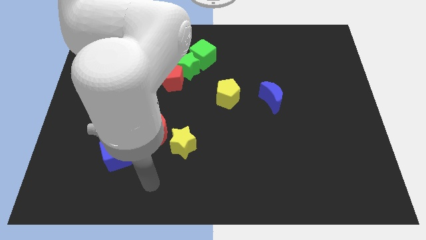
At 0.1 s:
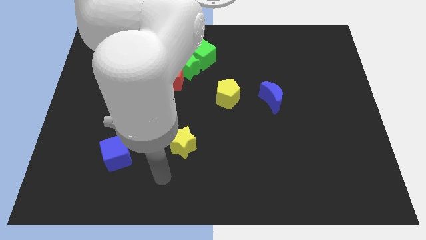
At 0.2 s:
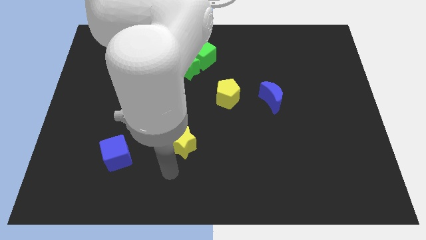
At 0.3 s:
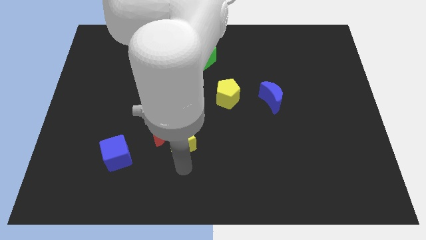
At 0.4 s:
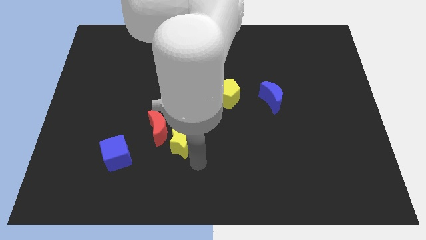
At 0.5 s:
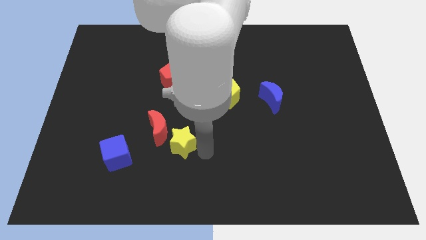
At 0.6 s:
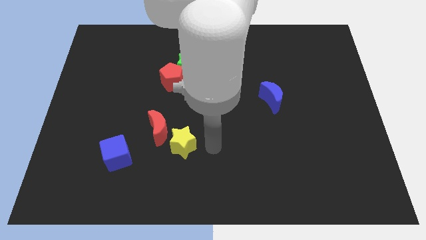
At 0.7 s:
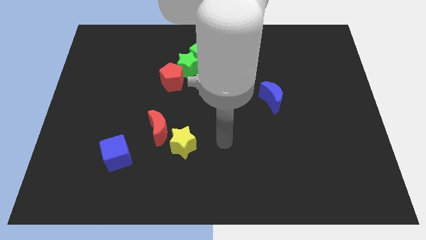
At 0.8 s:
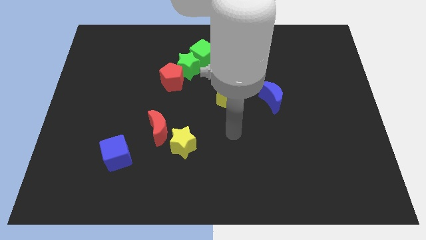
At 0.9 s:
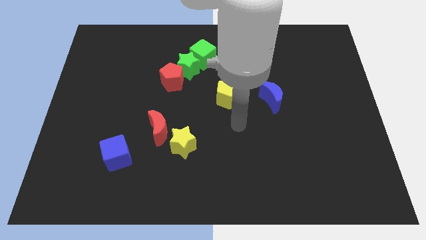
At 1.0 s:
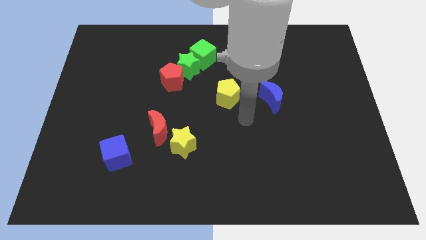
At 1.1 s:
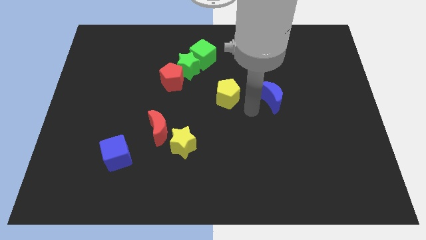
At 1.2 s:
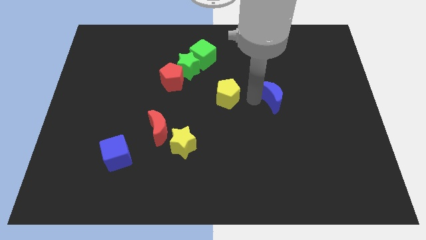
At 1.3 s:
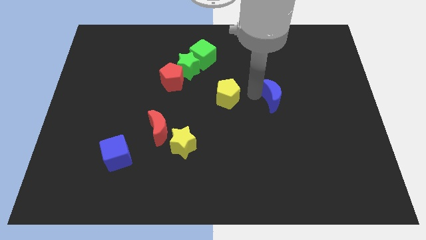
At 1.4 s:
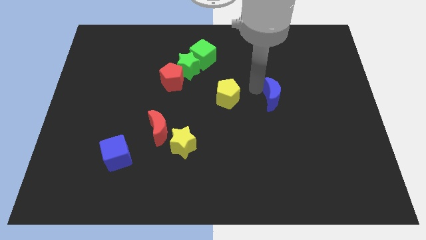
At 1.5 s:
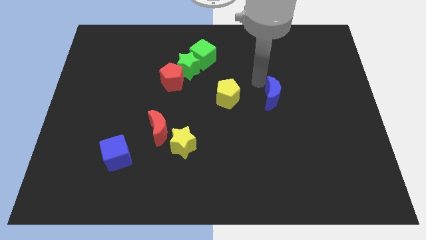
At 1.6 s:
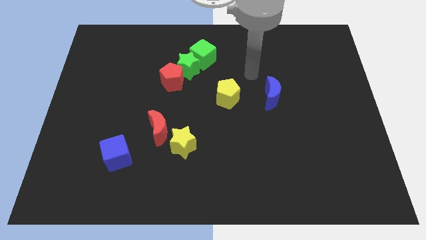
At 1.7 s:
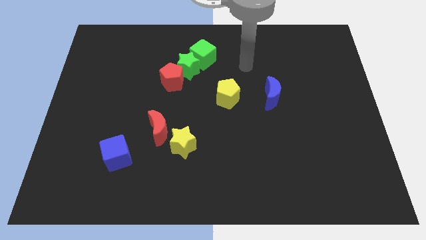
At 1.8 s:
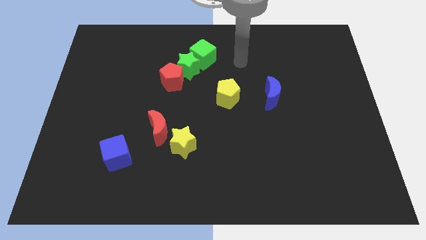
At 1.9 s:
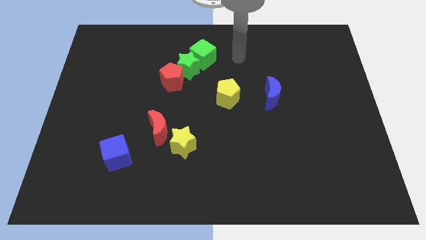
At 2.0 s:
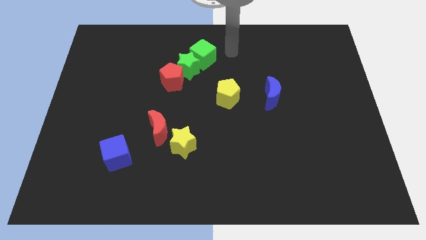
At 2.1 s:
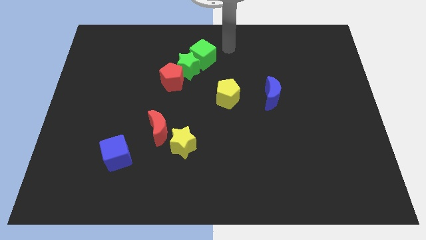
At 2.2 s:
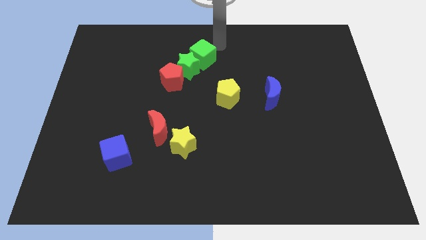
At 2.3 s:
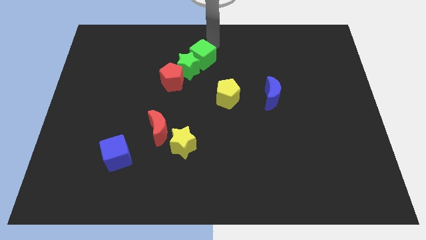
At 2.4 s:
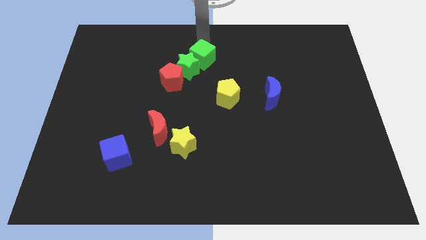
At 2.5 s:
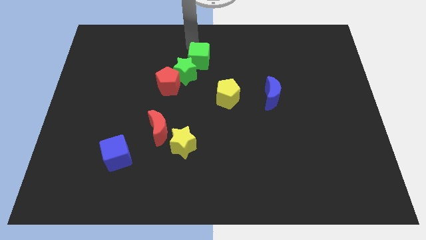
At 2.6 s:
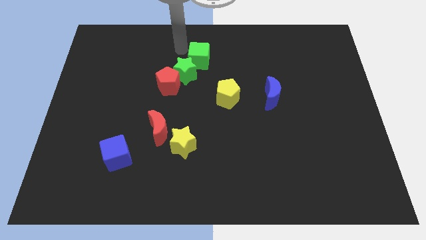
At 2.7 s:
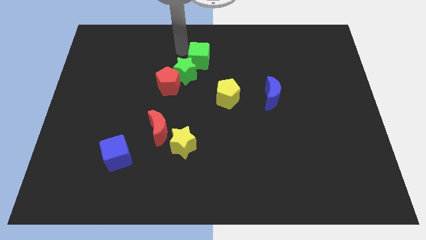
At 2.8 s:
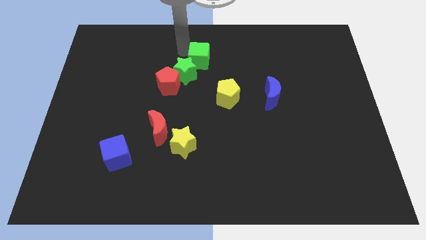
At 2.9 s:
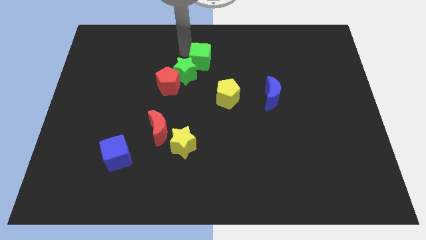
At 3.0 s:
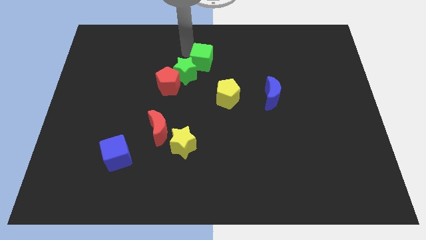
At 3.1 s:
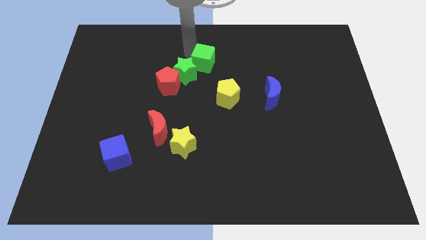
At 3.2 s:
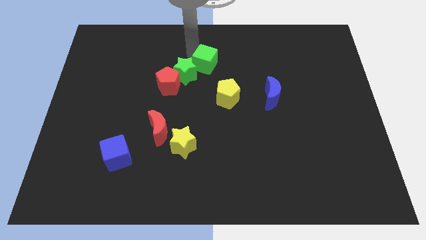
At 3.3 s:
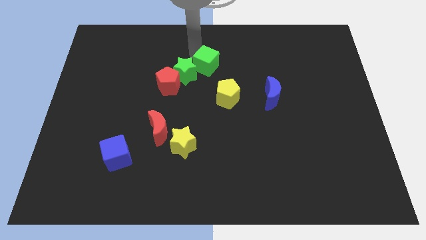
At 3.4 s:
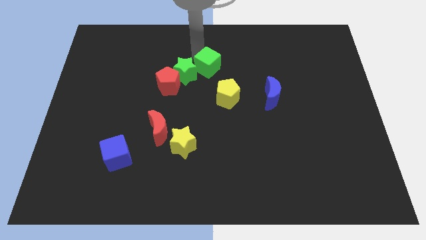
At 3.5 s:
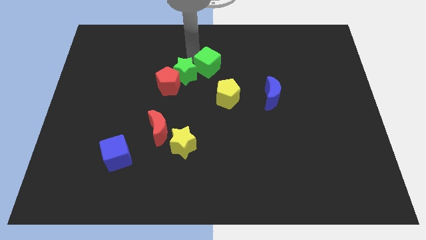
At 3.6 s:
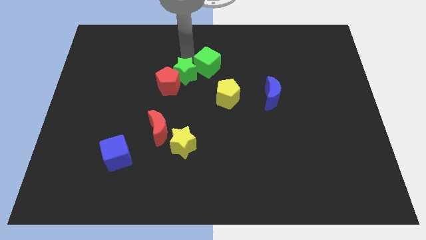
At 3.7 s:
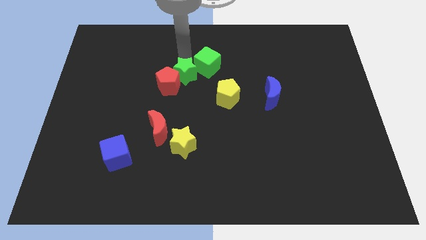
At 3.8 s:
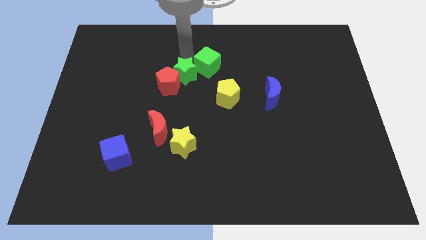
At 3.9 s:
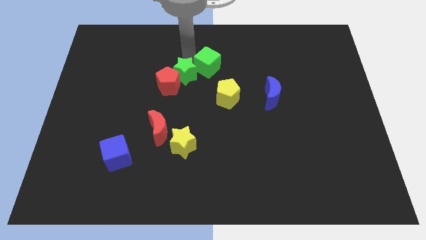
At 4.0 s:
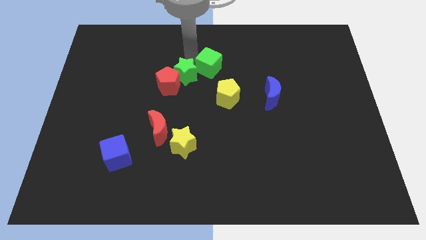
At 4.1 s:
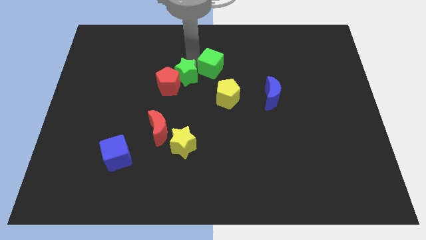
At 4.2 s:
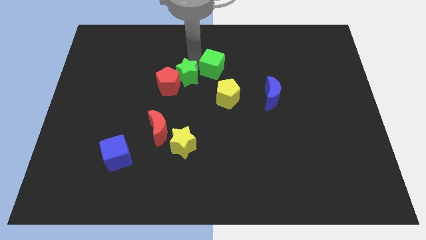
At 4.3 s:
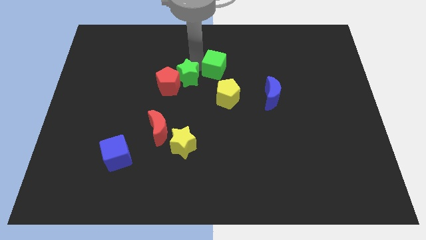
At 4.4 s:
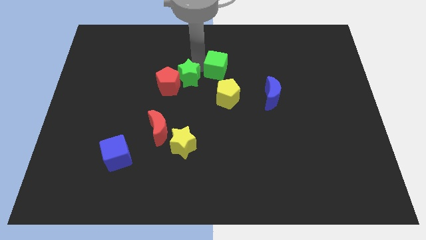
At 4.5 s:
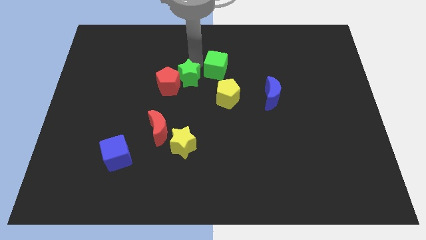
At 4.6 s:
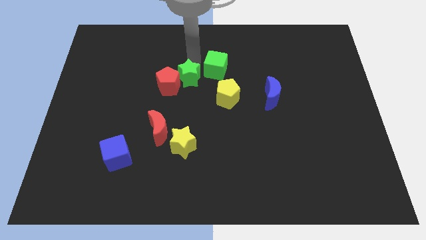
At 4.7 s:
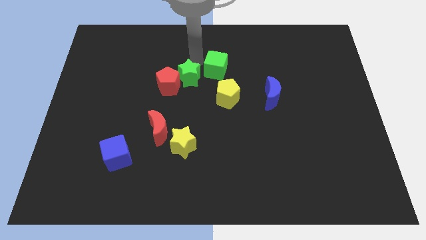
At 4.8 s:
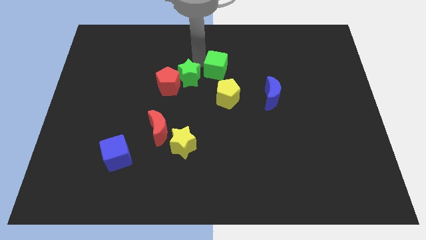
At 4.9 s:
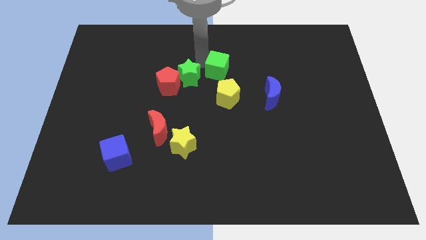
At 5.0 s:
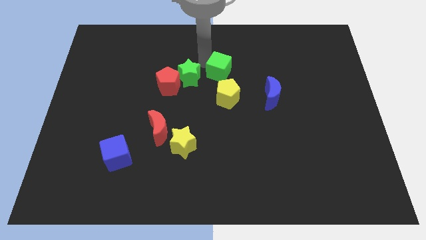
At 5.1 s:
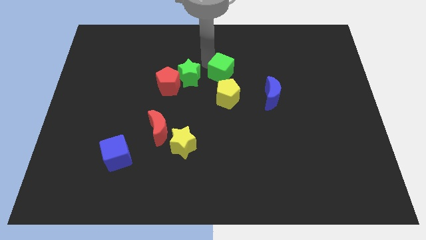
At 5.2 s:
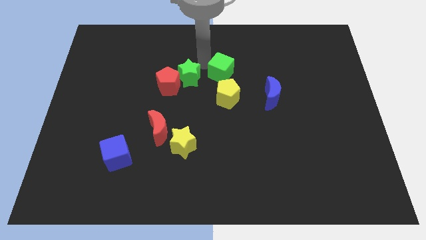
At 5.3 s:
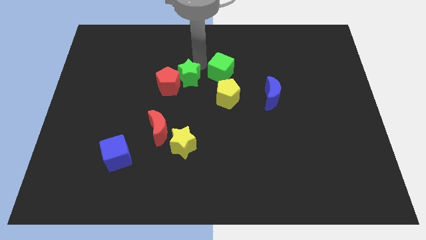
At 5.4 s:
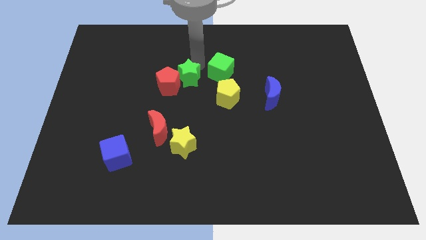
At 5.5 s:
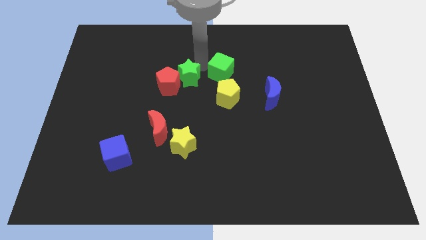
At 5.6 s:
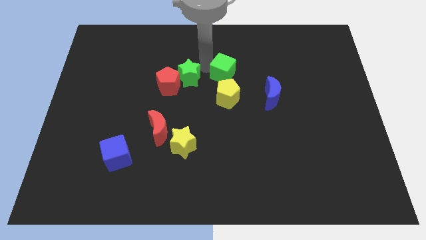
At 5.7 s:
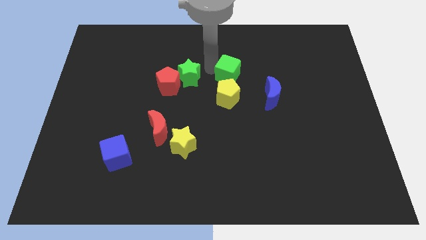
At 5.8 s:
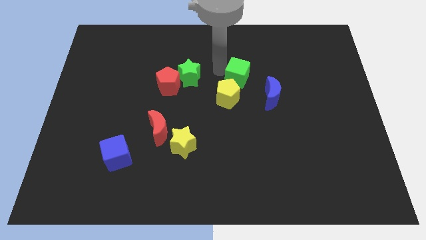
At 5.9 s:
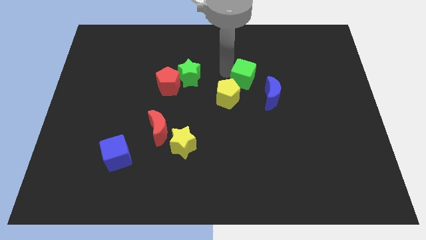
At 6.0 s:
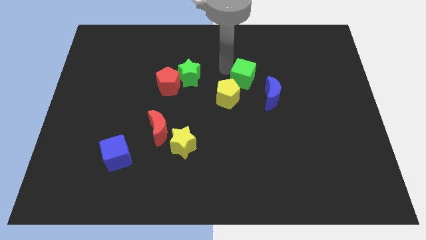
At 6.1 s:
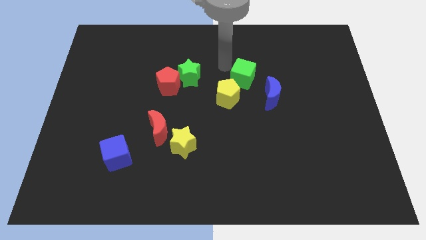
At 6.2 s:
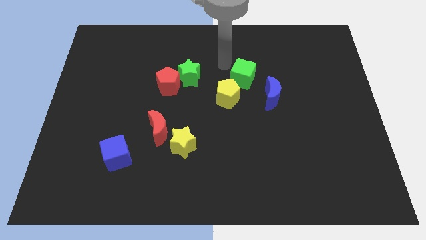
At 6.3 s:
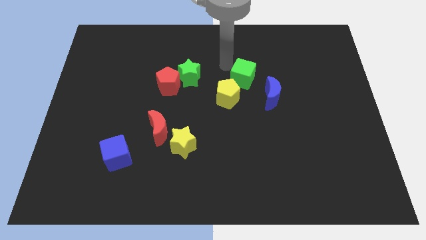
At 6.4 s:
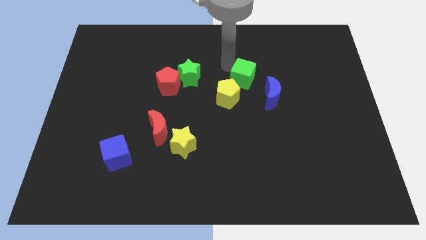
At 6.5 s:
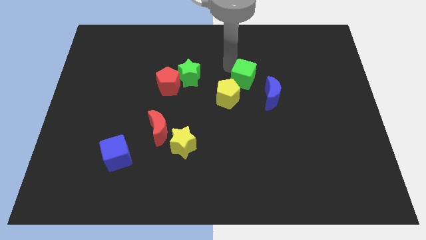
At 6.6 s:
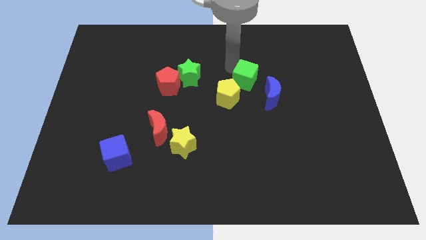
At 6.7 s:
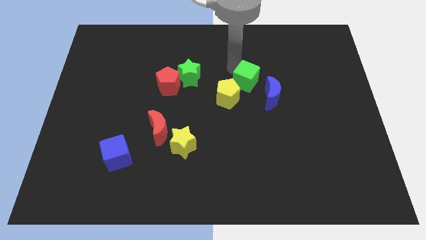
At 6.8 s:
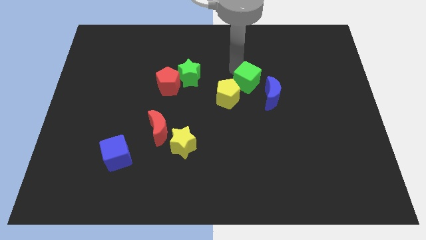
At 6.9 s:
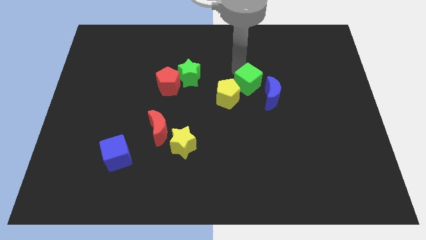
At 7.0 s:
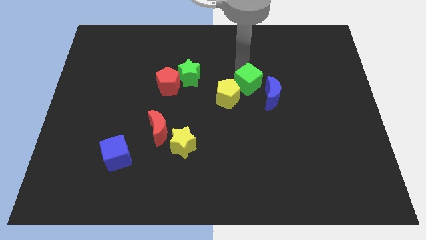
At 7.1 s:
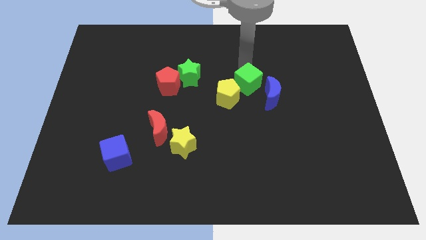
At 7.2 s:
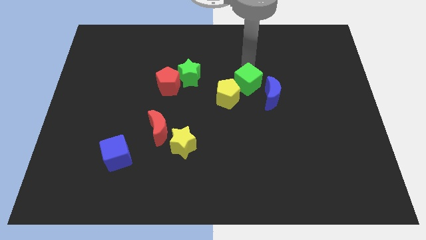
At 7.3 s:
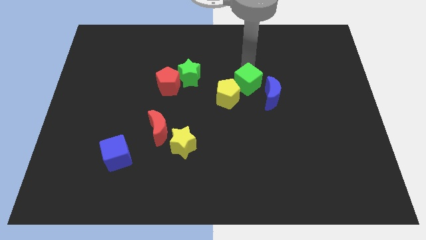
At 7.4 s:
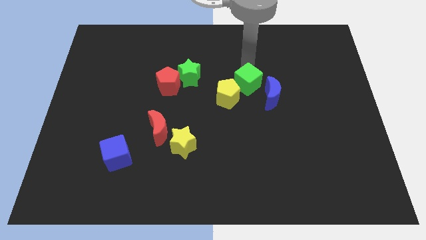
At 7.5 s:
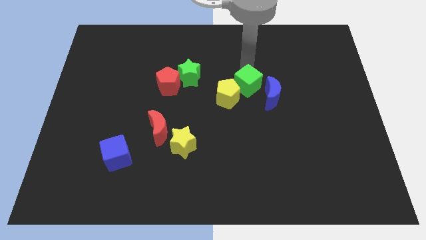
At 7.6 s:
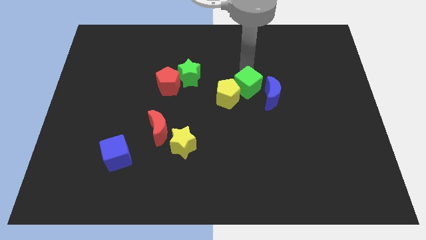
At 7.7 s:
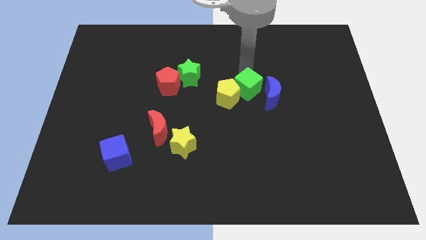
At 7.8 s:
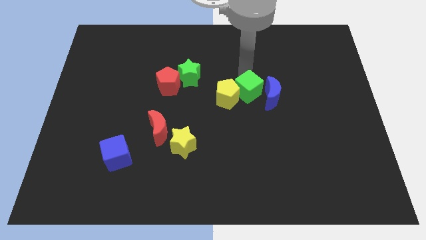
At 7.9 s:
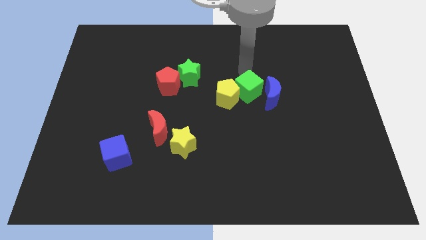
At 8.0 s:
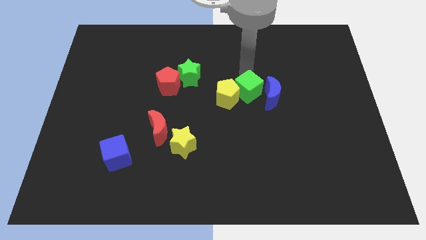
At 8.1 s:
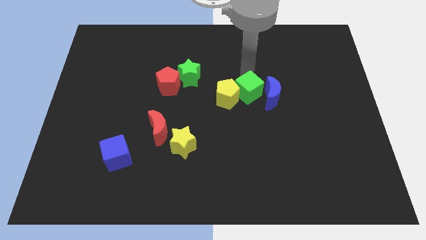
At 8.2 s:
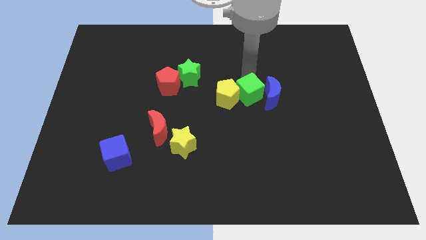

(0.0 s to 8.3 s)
push the green cube diagonally down and to the left of the blue moon
